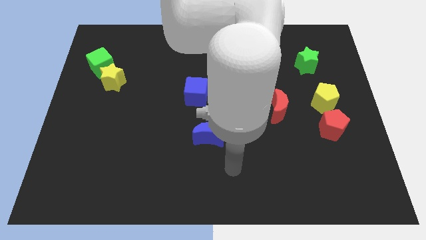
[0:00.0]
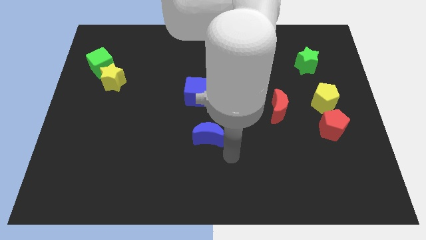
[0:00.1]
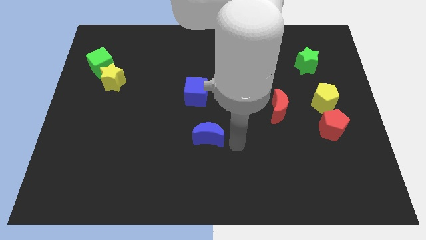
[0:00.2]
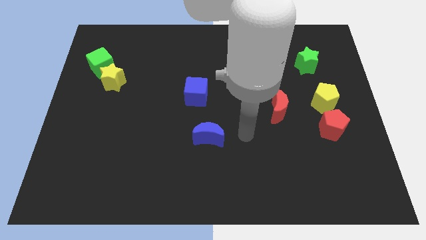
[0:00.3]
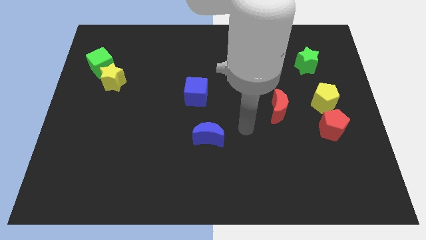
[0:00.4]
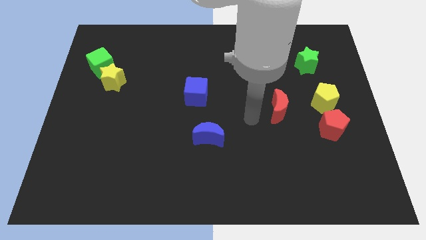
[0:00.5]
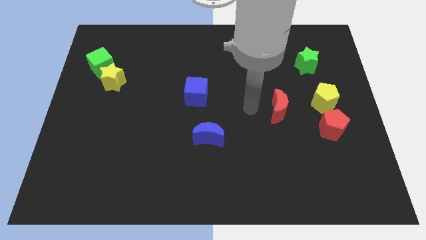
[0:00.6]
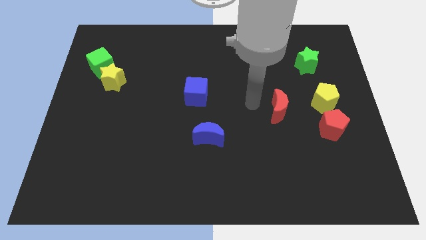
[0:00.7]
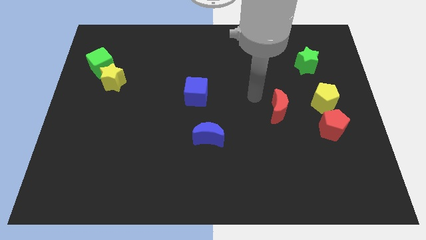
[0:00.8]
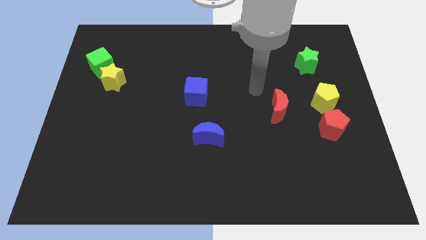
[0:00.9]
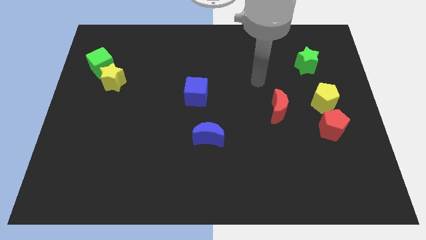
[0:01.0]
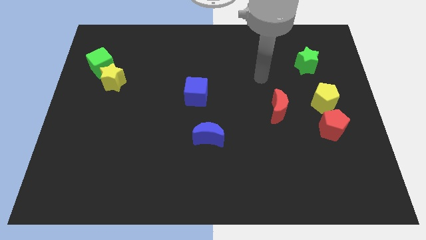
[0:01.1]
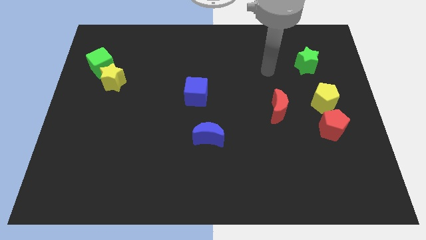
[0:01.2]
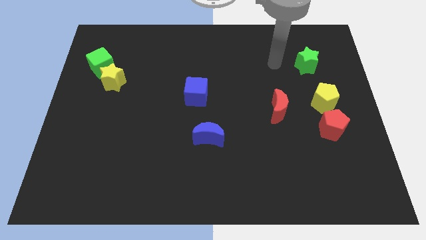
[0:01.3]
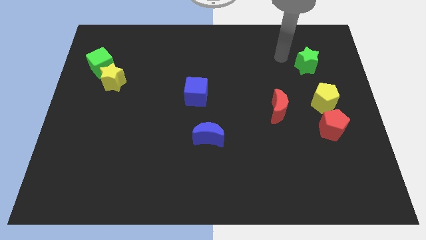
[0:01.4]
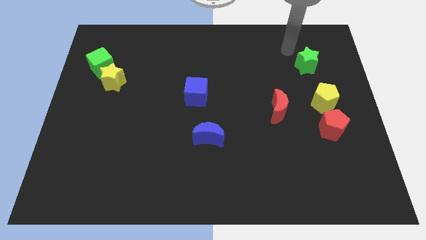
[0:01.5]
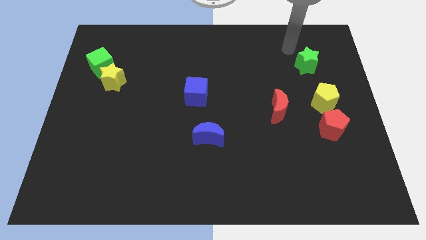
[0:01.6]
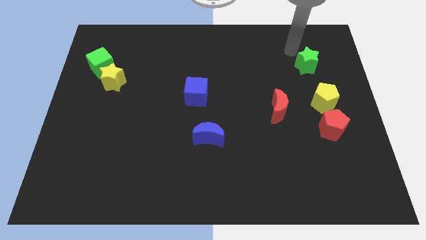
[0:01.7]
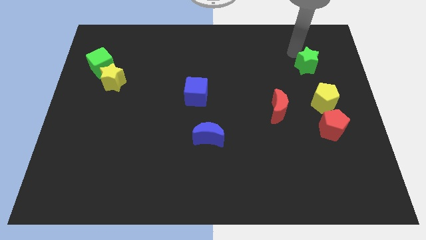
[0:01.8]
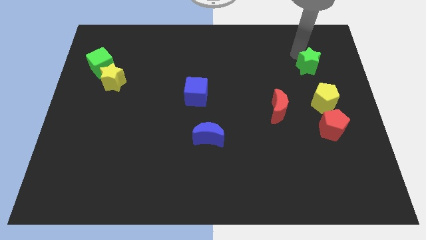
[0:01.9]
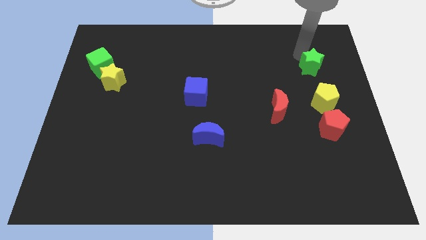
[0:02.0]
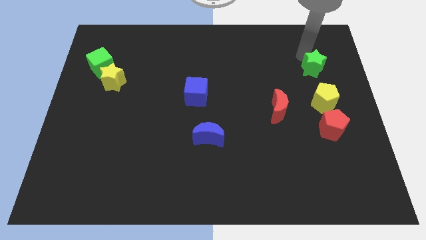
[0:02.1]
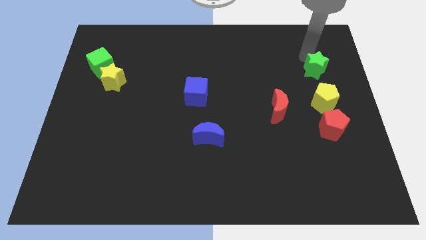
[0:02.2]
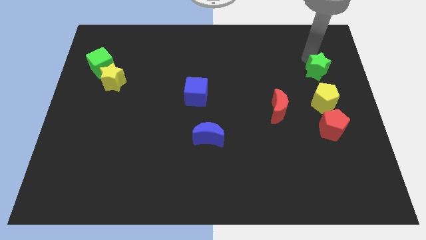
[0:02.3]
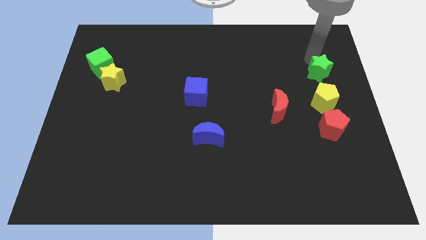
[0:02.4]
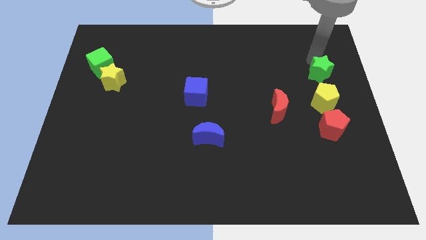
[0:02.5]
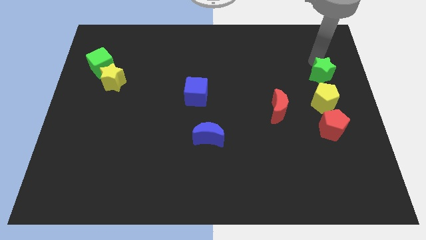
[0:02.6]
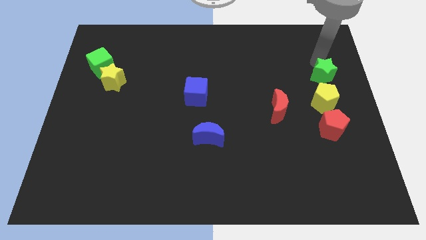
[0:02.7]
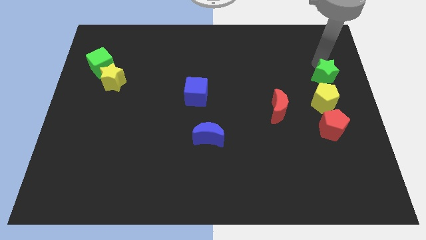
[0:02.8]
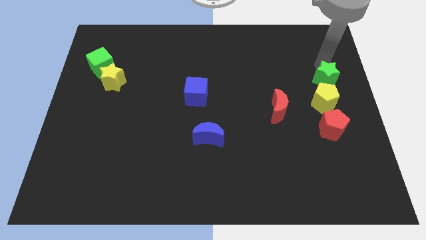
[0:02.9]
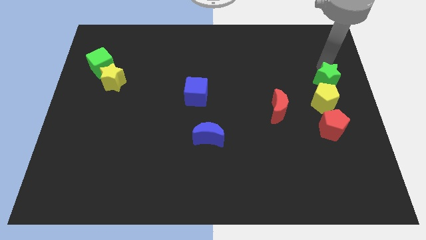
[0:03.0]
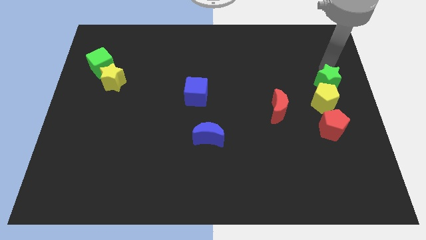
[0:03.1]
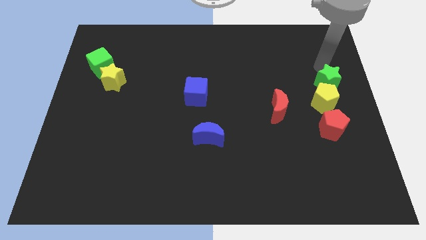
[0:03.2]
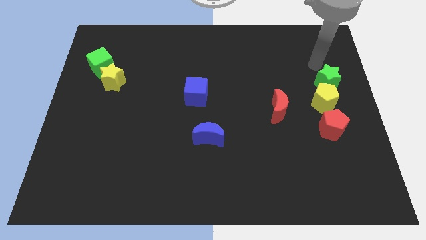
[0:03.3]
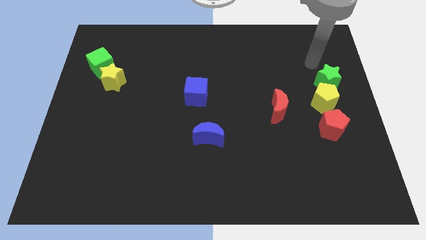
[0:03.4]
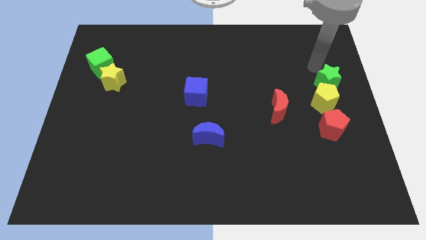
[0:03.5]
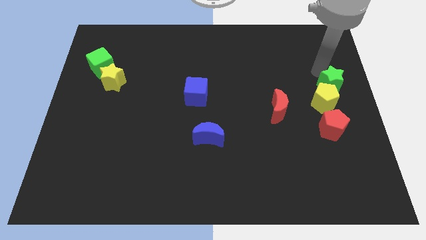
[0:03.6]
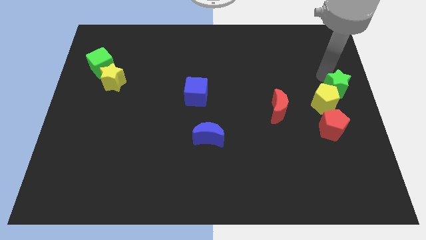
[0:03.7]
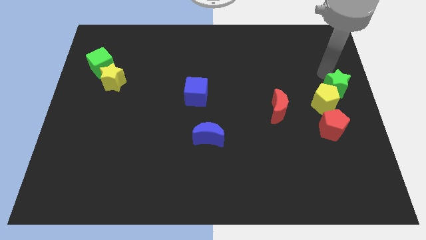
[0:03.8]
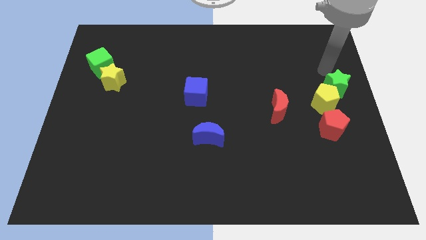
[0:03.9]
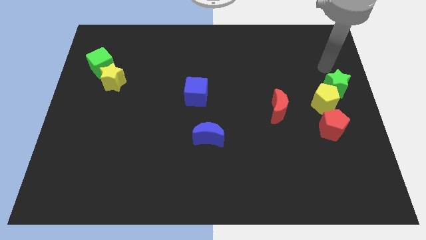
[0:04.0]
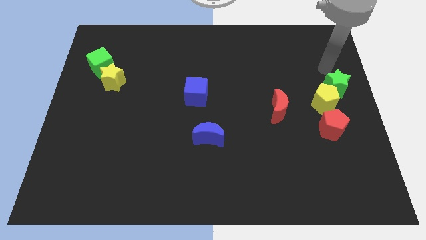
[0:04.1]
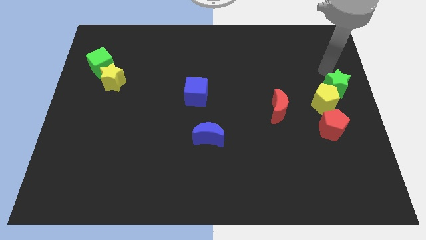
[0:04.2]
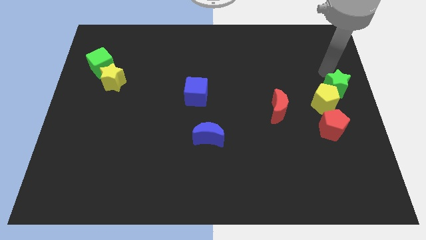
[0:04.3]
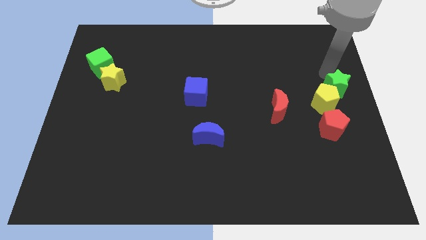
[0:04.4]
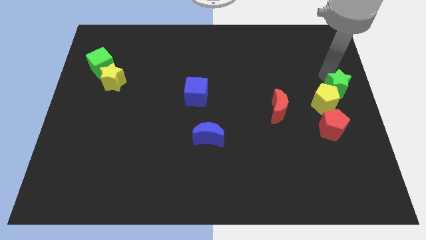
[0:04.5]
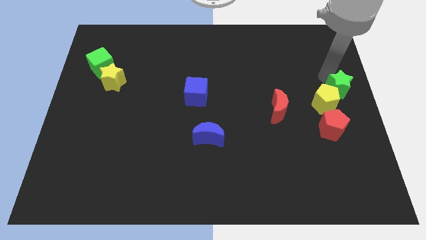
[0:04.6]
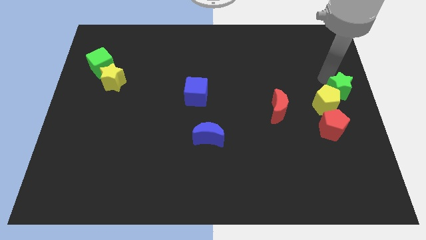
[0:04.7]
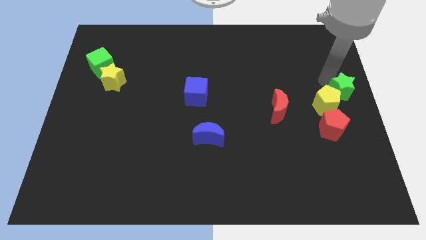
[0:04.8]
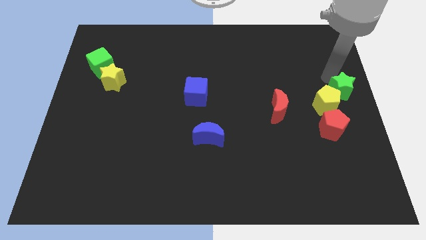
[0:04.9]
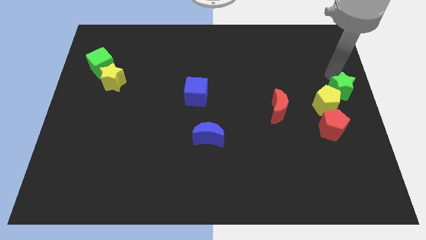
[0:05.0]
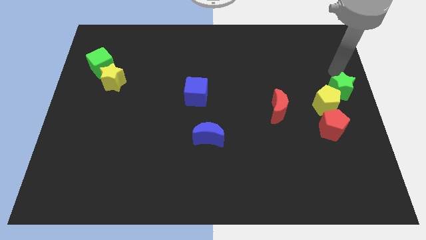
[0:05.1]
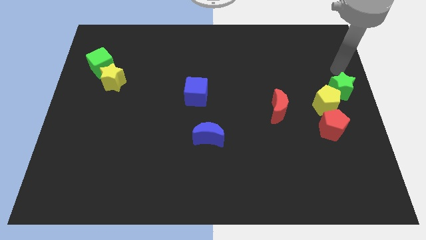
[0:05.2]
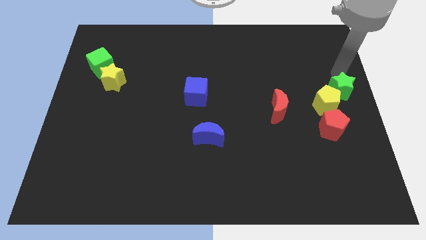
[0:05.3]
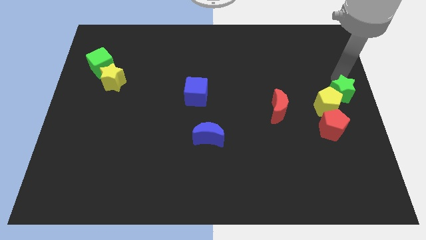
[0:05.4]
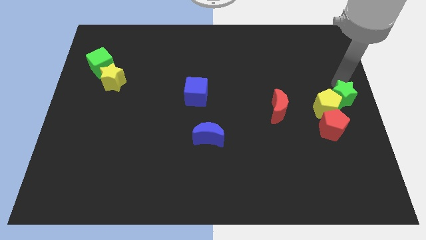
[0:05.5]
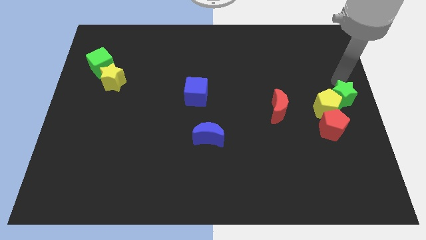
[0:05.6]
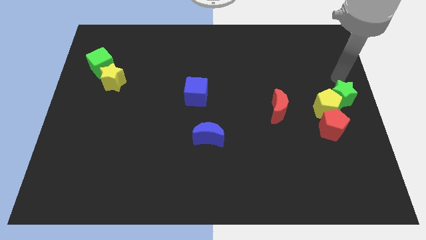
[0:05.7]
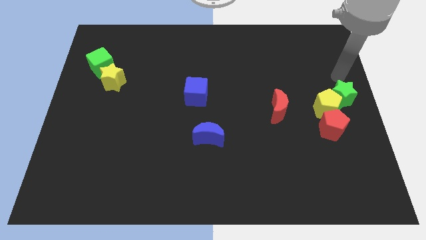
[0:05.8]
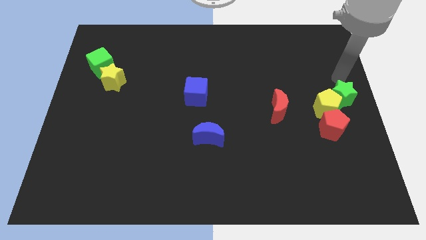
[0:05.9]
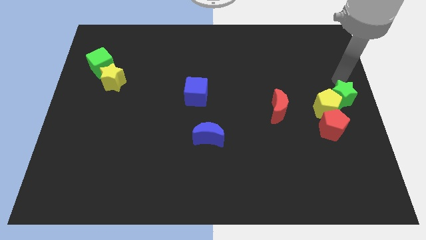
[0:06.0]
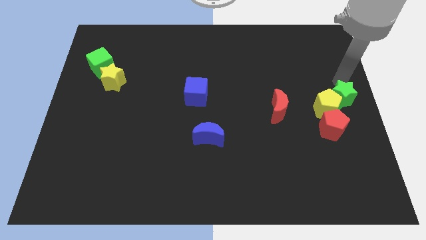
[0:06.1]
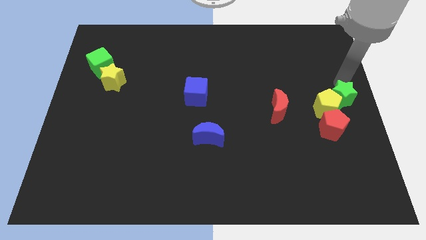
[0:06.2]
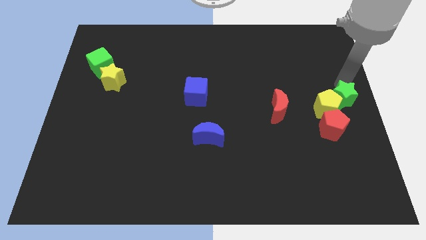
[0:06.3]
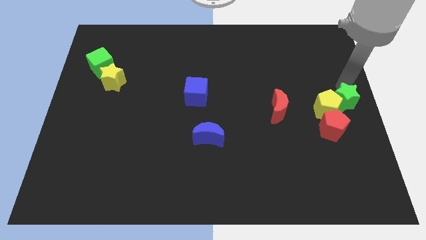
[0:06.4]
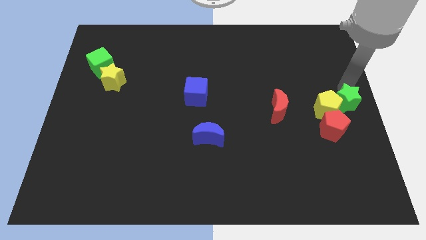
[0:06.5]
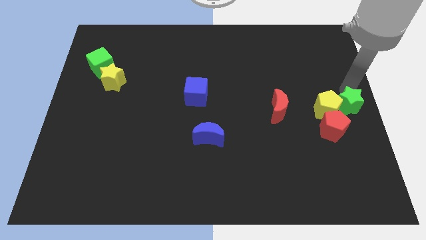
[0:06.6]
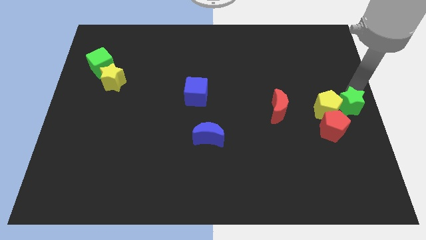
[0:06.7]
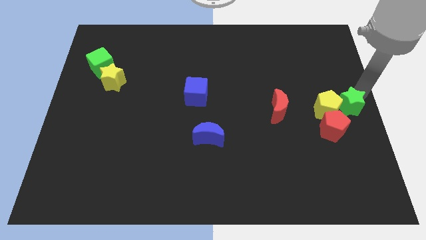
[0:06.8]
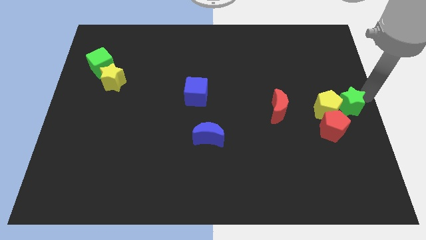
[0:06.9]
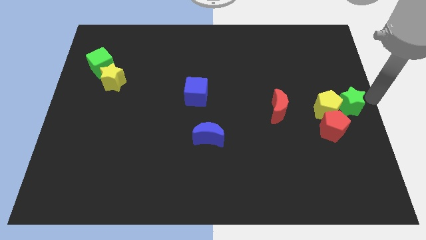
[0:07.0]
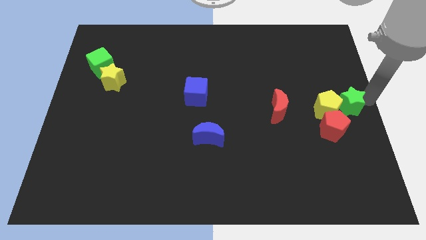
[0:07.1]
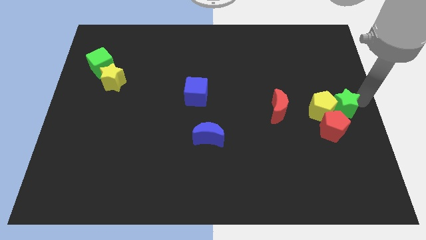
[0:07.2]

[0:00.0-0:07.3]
slide the green star right of the red moon
